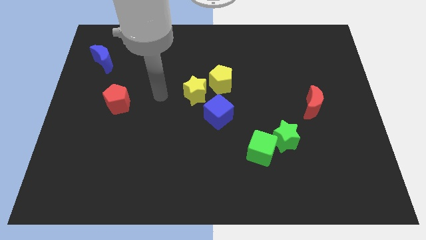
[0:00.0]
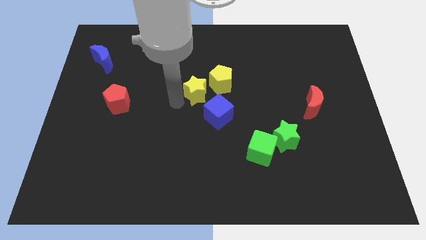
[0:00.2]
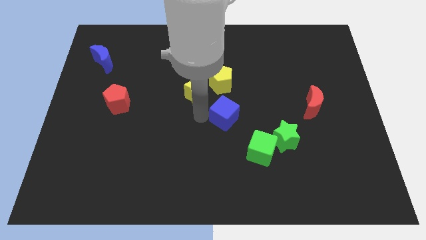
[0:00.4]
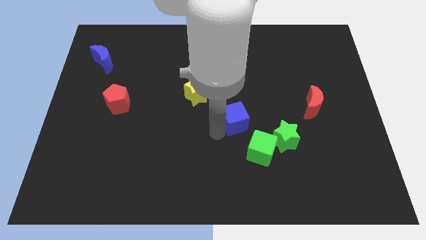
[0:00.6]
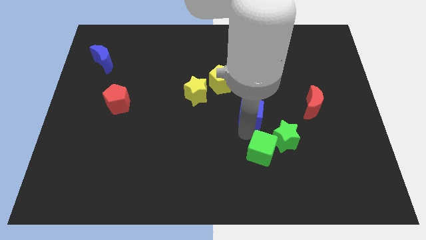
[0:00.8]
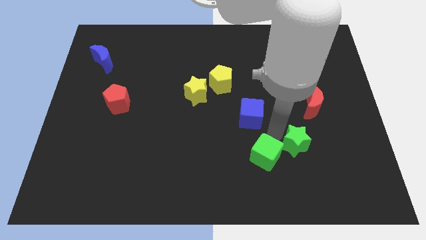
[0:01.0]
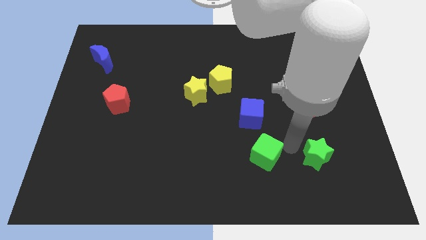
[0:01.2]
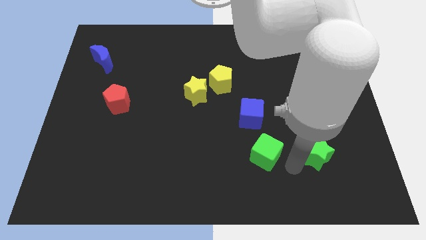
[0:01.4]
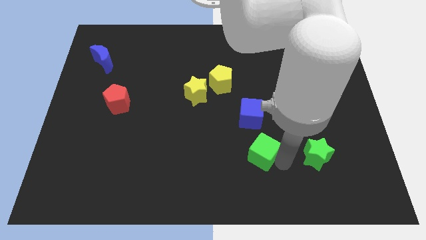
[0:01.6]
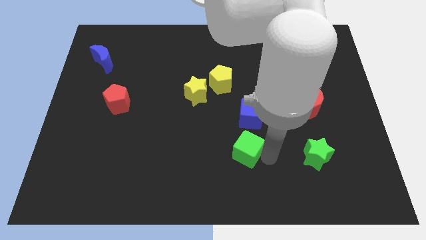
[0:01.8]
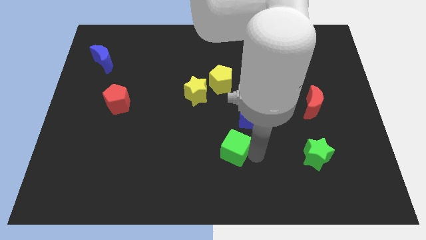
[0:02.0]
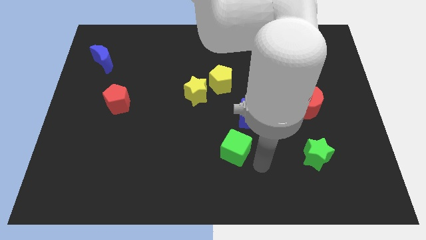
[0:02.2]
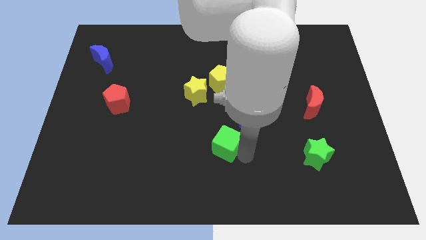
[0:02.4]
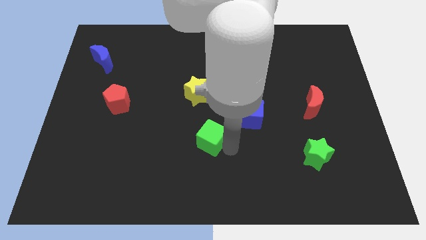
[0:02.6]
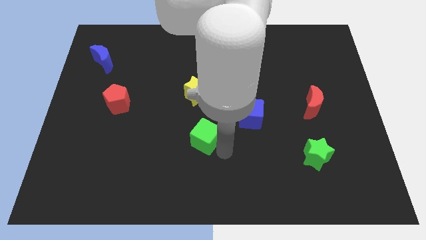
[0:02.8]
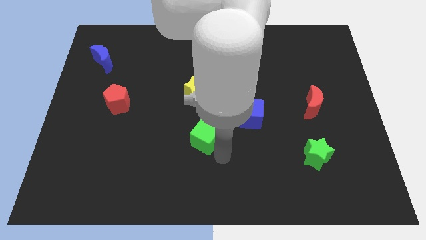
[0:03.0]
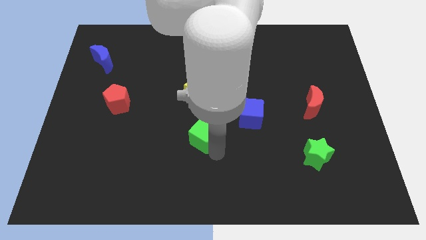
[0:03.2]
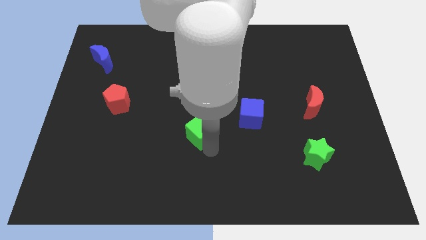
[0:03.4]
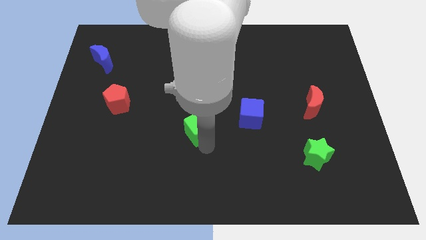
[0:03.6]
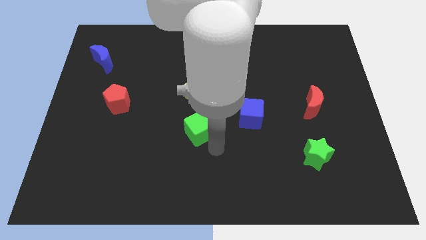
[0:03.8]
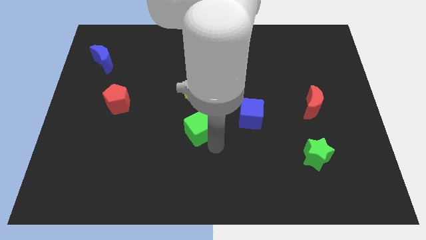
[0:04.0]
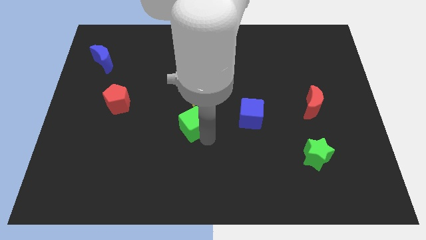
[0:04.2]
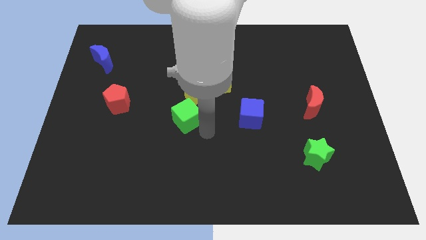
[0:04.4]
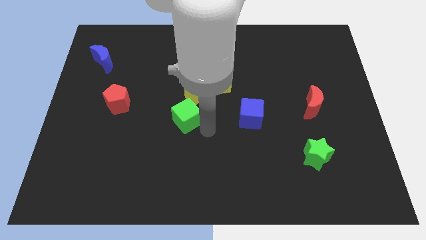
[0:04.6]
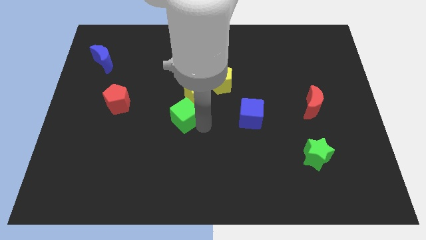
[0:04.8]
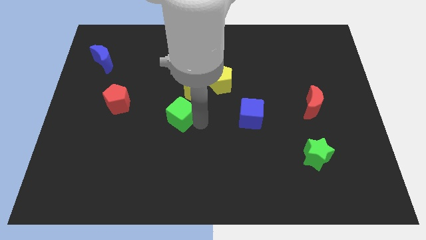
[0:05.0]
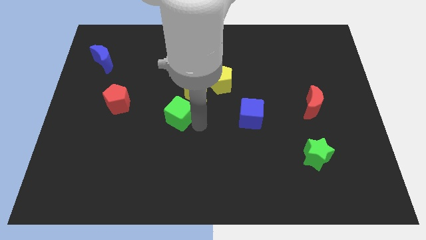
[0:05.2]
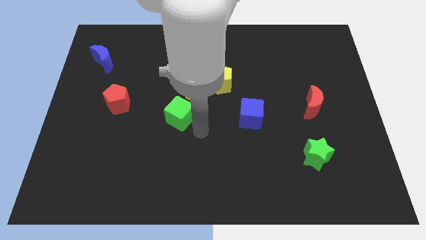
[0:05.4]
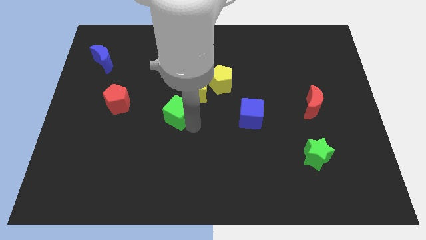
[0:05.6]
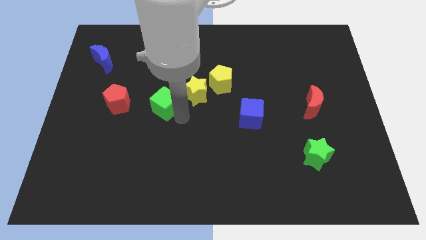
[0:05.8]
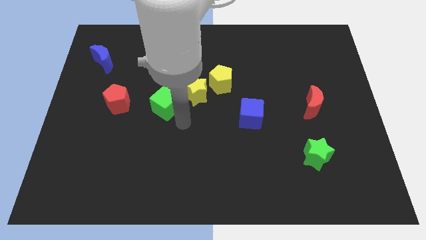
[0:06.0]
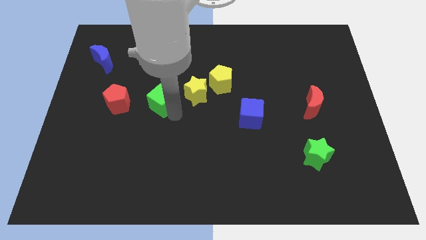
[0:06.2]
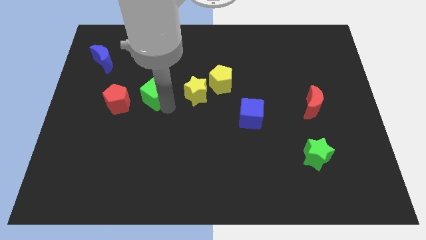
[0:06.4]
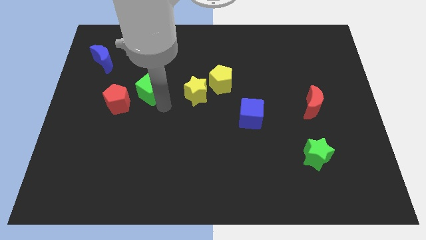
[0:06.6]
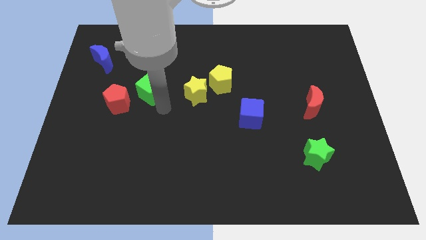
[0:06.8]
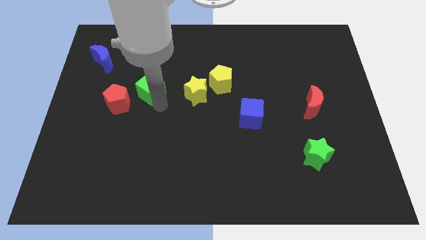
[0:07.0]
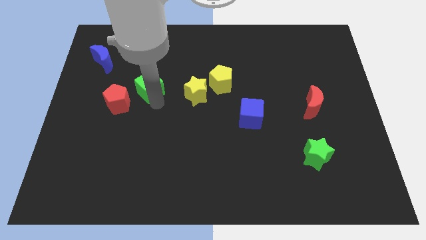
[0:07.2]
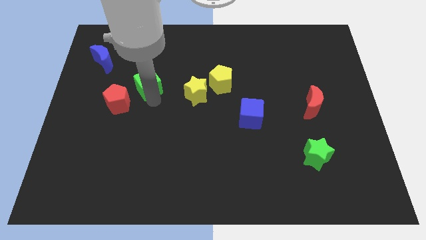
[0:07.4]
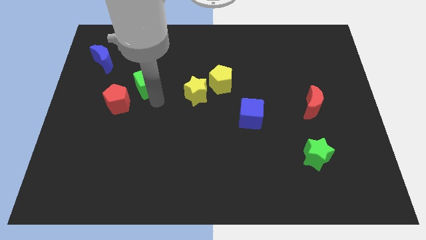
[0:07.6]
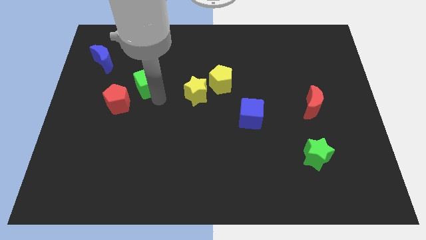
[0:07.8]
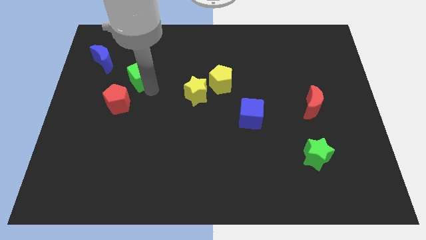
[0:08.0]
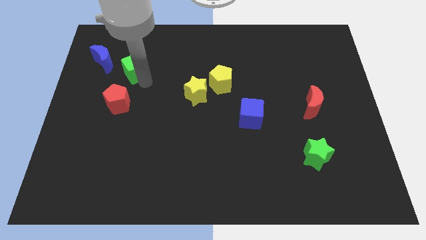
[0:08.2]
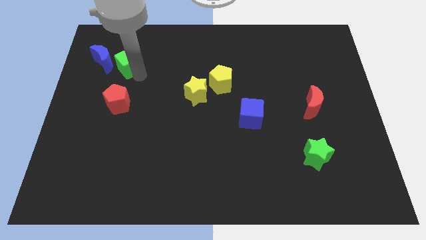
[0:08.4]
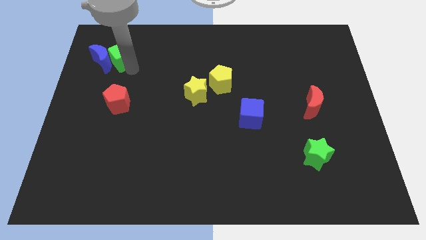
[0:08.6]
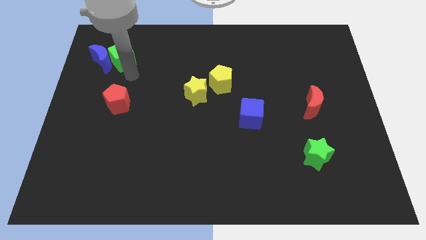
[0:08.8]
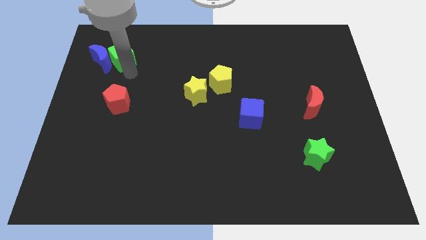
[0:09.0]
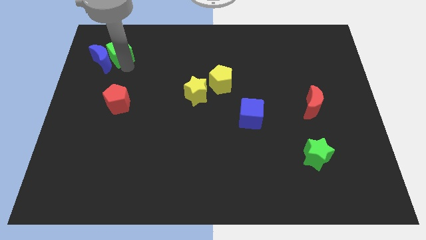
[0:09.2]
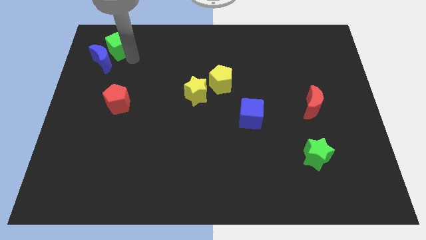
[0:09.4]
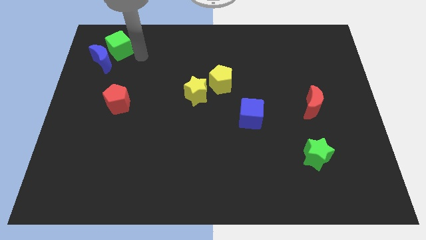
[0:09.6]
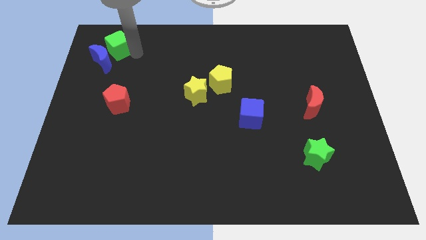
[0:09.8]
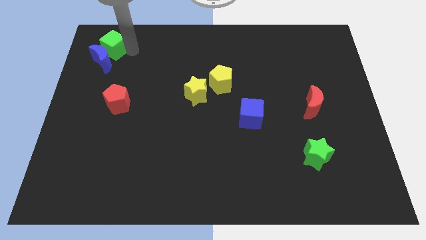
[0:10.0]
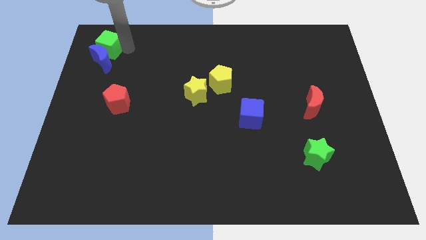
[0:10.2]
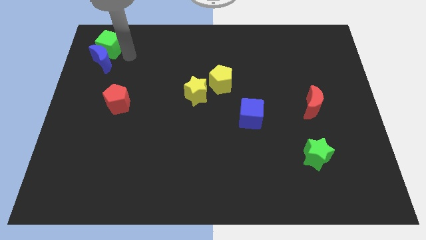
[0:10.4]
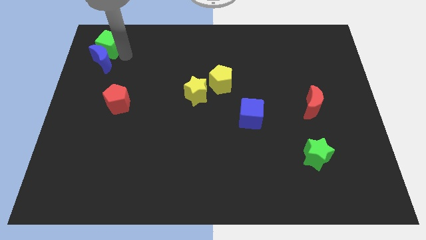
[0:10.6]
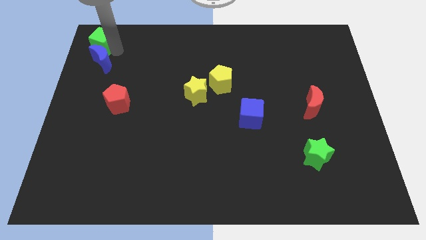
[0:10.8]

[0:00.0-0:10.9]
move the green cube to the top left of the board

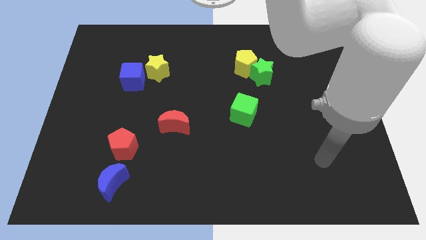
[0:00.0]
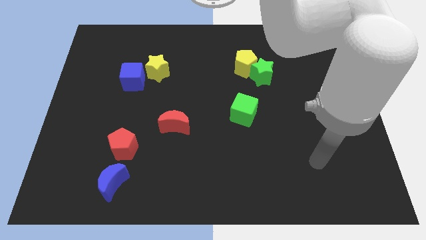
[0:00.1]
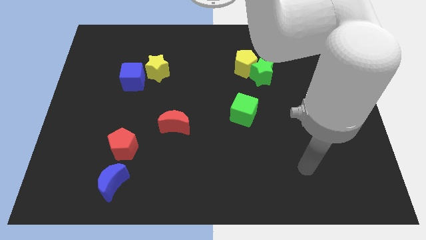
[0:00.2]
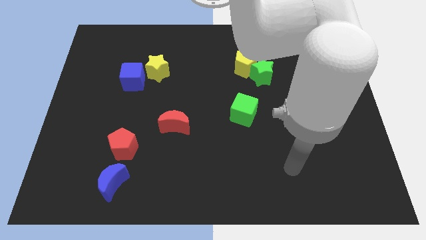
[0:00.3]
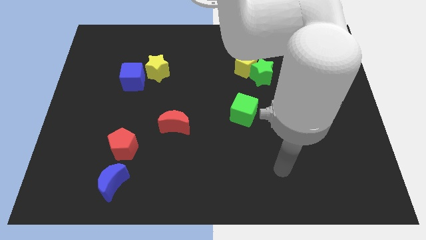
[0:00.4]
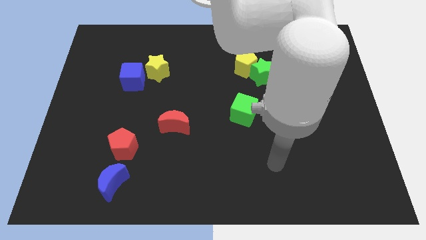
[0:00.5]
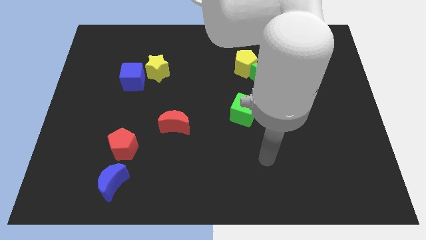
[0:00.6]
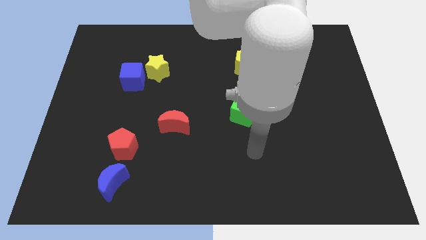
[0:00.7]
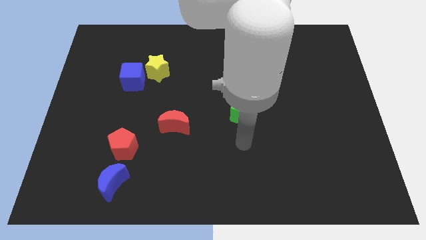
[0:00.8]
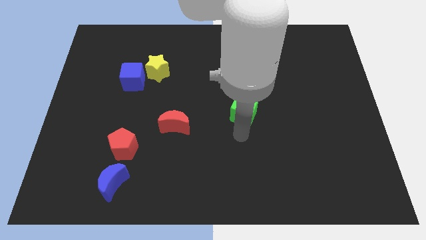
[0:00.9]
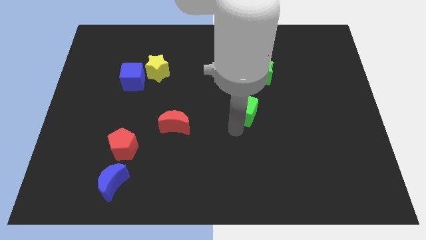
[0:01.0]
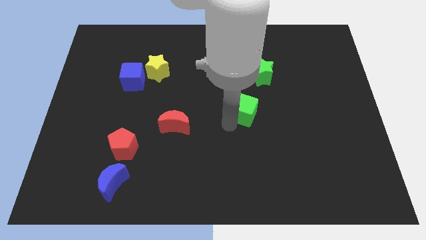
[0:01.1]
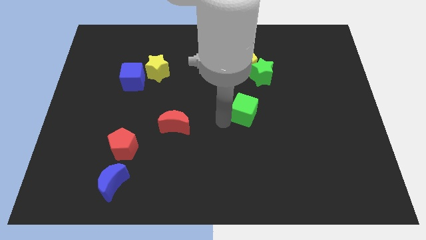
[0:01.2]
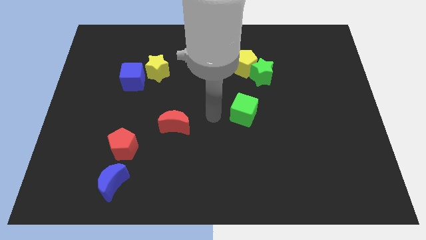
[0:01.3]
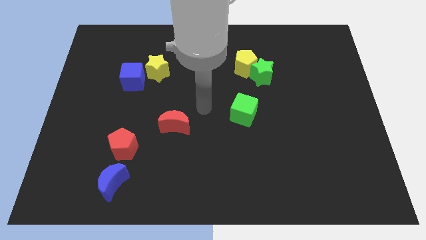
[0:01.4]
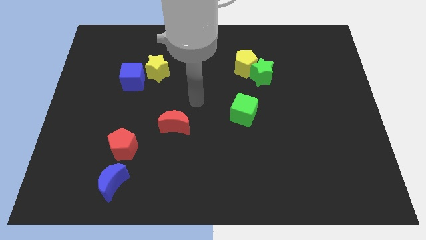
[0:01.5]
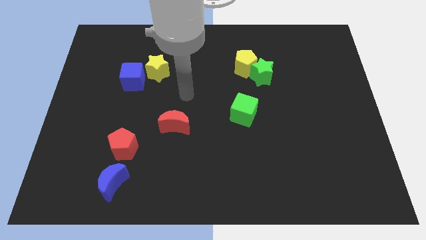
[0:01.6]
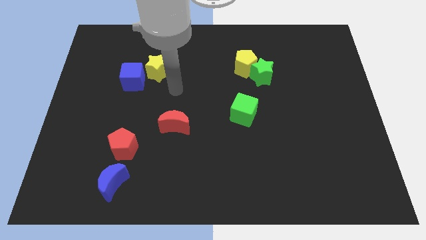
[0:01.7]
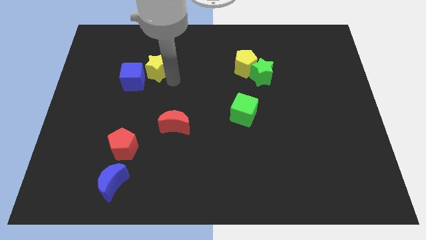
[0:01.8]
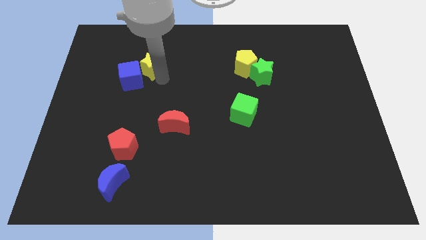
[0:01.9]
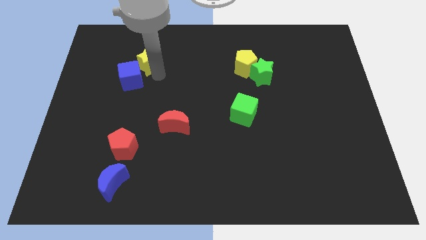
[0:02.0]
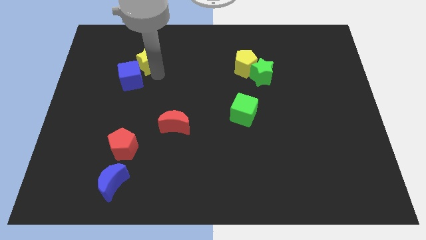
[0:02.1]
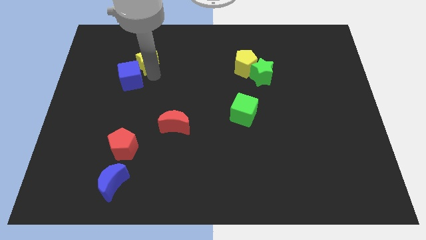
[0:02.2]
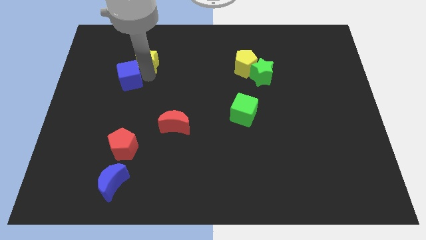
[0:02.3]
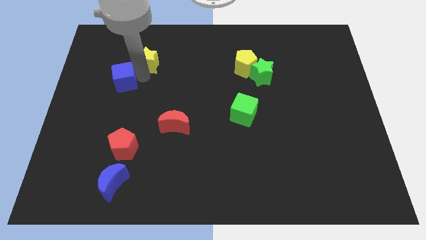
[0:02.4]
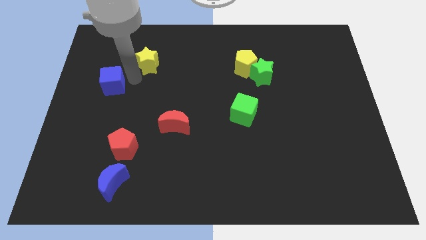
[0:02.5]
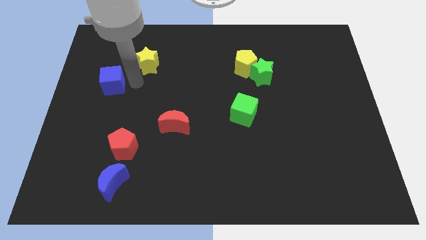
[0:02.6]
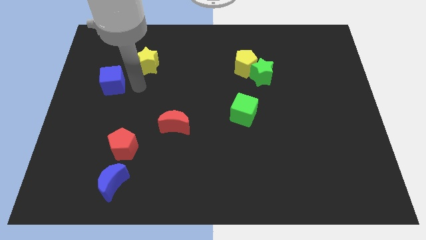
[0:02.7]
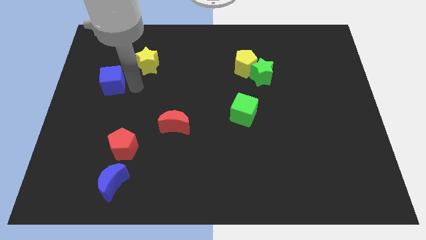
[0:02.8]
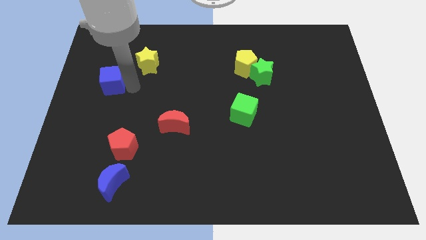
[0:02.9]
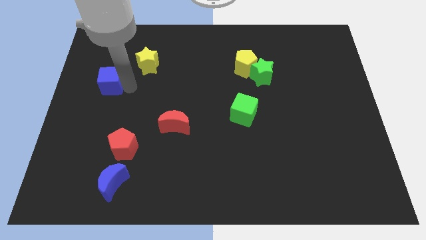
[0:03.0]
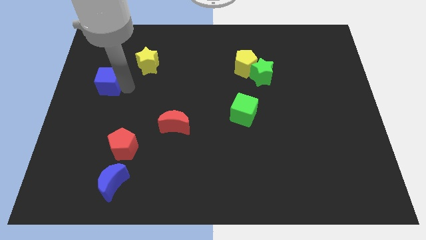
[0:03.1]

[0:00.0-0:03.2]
slide the blue cube to the left side
